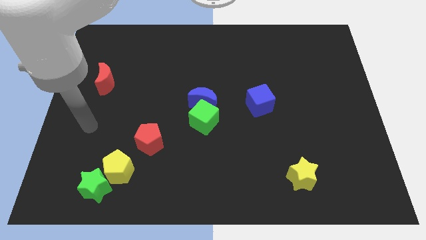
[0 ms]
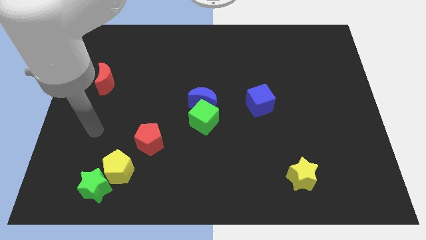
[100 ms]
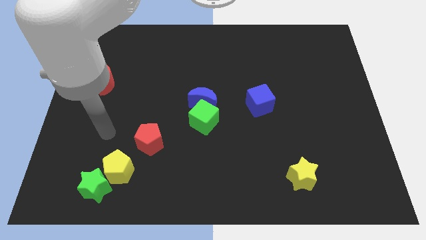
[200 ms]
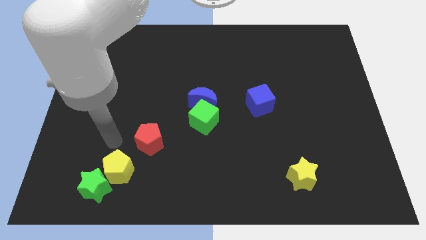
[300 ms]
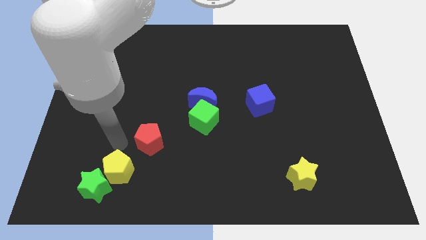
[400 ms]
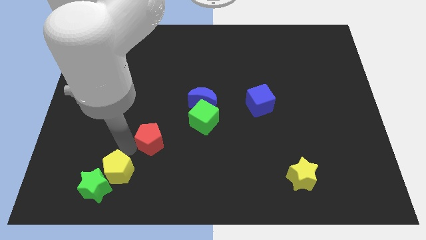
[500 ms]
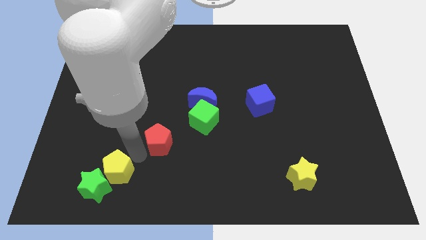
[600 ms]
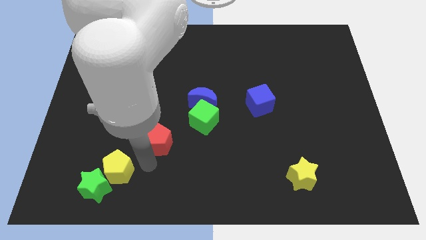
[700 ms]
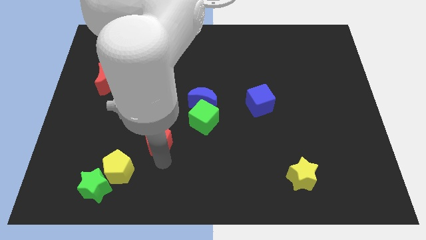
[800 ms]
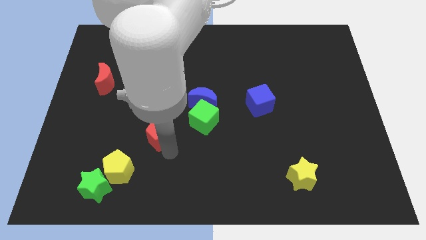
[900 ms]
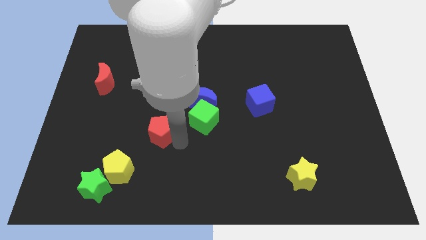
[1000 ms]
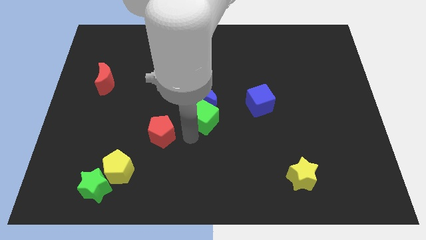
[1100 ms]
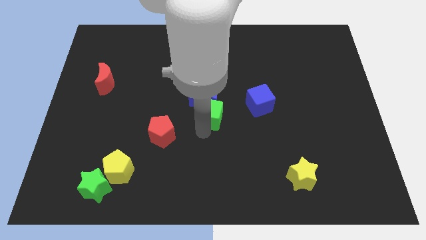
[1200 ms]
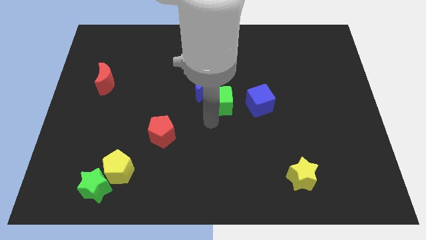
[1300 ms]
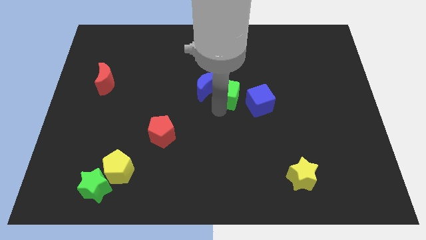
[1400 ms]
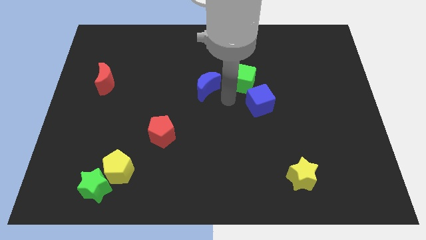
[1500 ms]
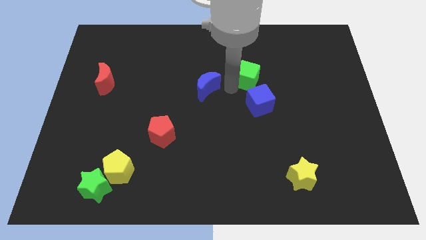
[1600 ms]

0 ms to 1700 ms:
move the blue moon away from the green cube

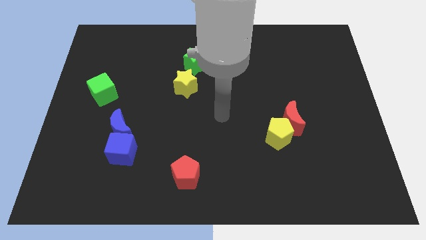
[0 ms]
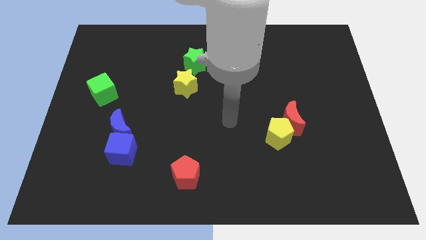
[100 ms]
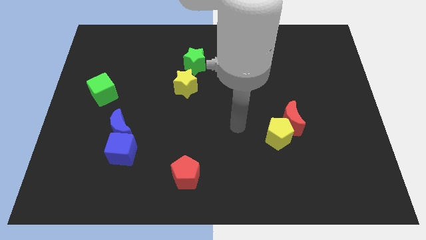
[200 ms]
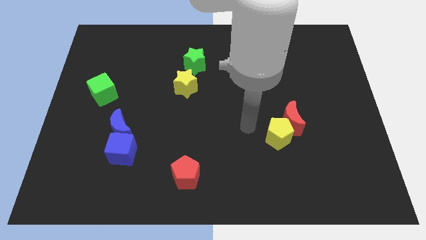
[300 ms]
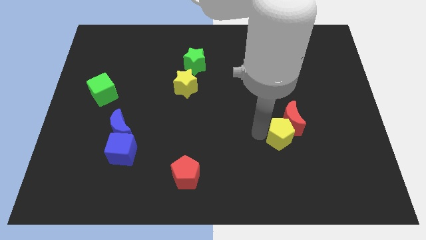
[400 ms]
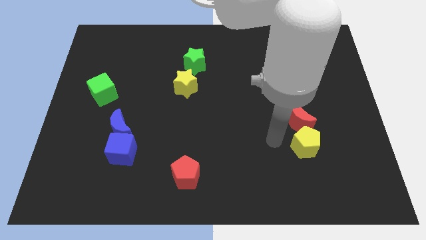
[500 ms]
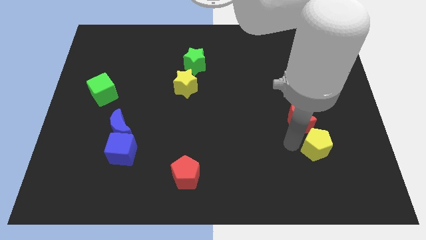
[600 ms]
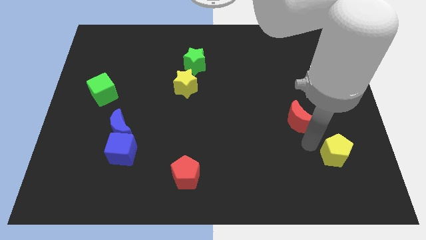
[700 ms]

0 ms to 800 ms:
separate the red moon from the yellow pentagon

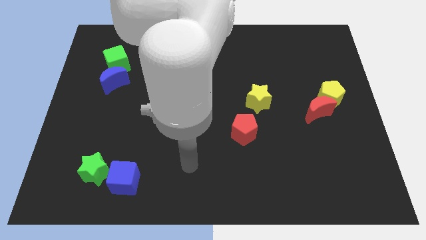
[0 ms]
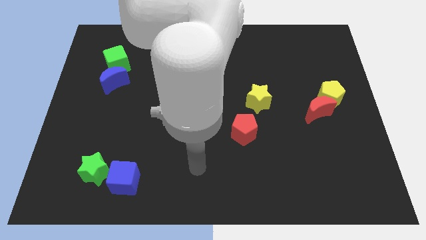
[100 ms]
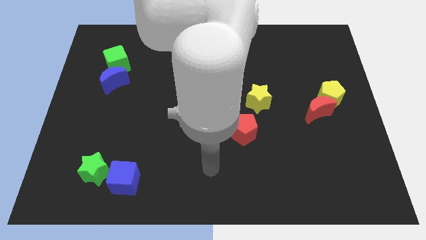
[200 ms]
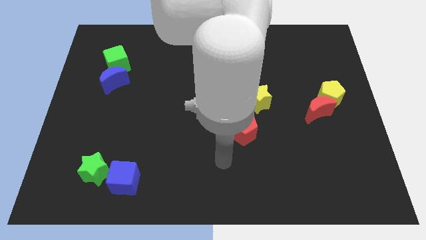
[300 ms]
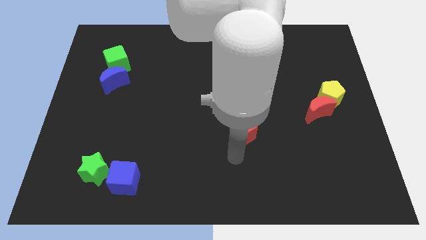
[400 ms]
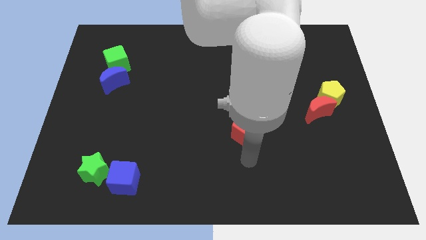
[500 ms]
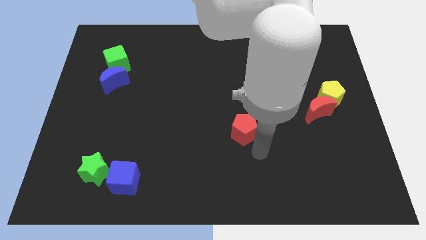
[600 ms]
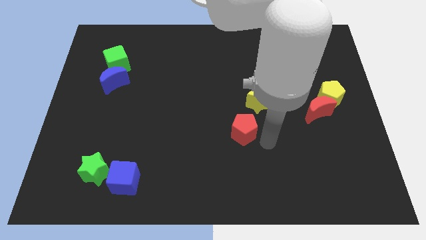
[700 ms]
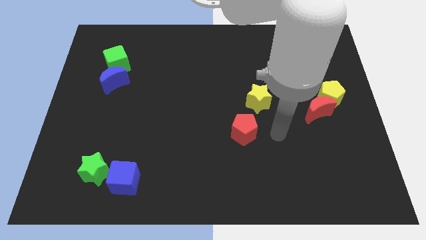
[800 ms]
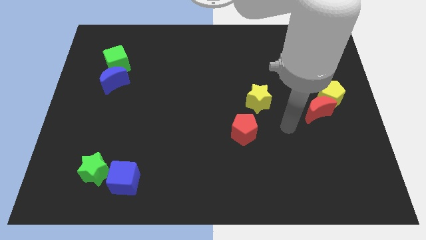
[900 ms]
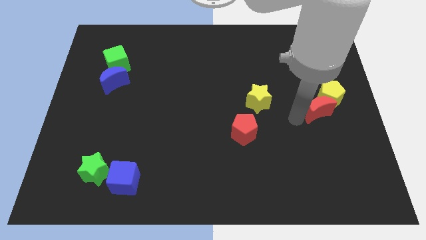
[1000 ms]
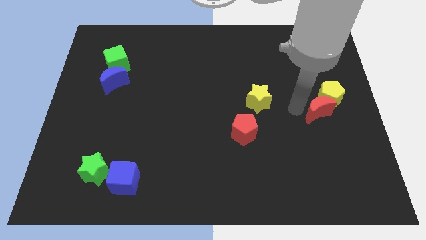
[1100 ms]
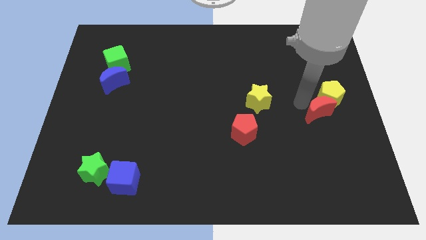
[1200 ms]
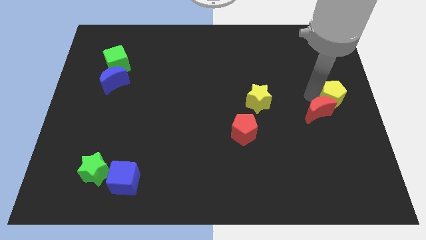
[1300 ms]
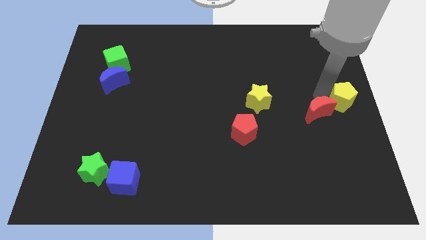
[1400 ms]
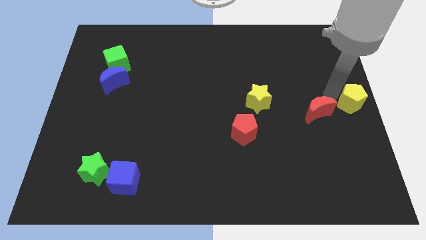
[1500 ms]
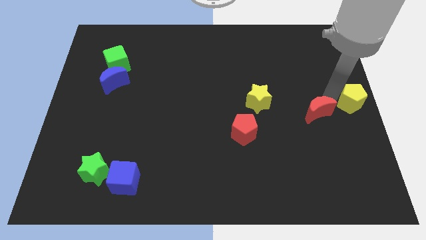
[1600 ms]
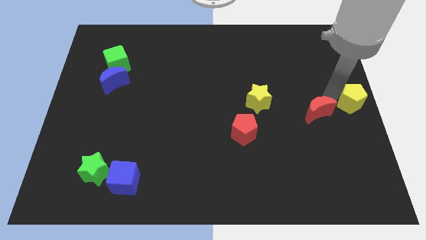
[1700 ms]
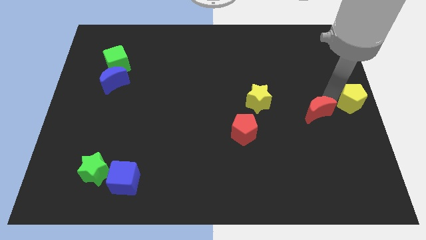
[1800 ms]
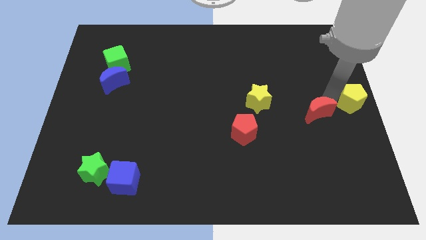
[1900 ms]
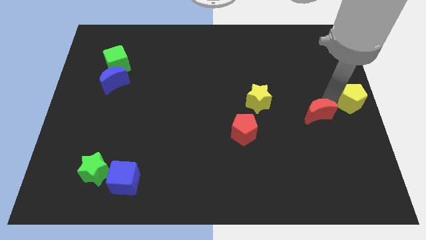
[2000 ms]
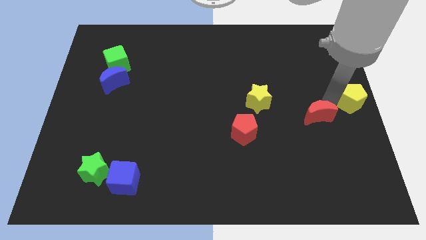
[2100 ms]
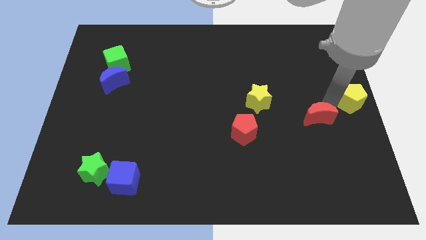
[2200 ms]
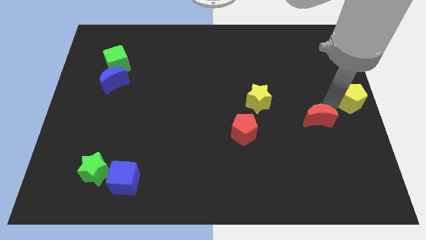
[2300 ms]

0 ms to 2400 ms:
move the red moon away from the yellow pentagon

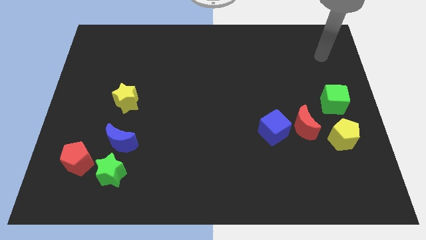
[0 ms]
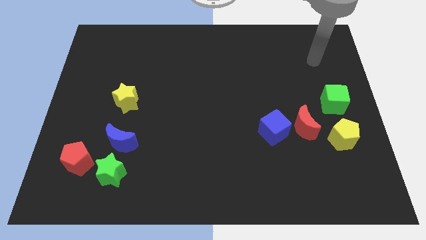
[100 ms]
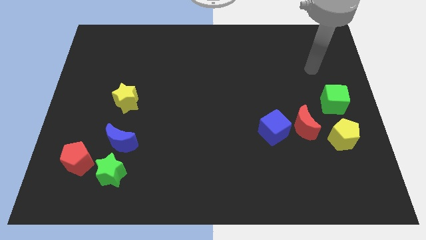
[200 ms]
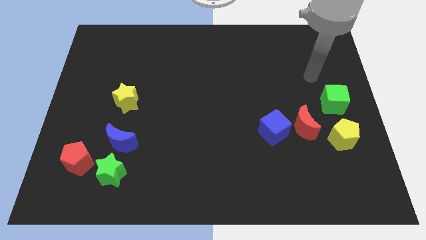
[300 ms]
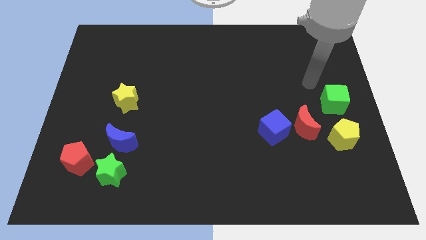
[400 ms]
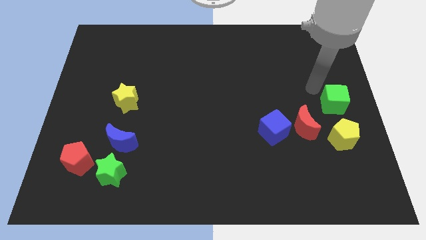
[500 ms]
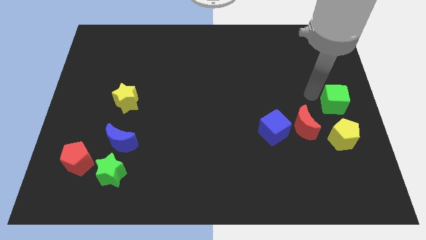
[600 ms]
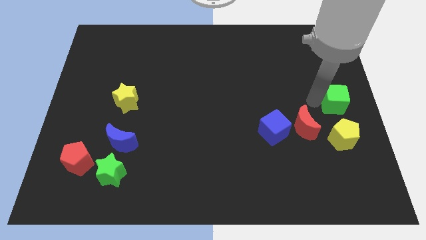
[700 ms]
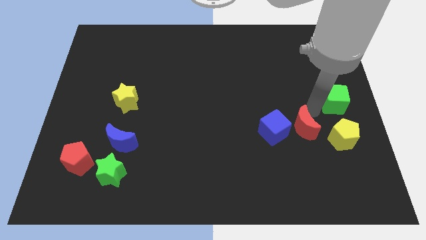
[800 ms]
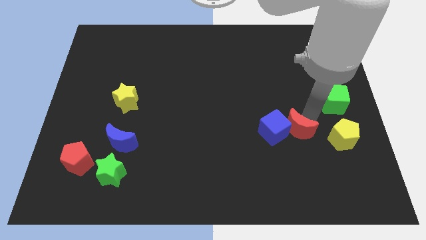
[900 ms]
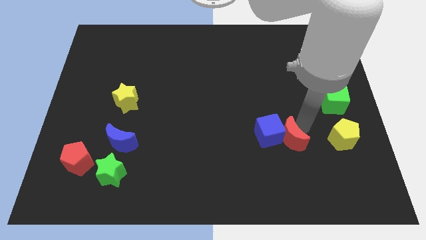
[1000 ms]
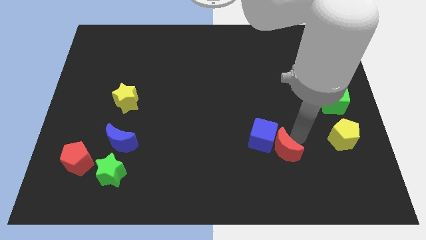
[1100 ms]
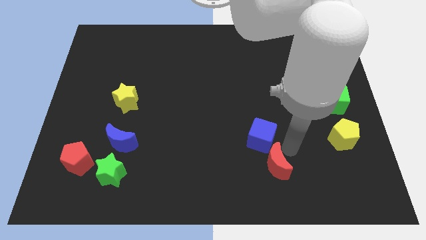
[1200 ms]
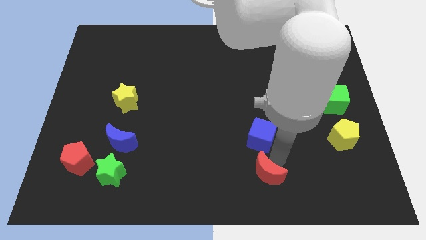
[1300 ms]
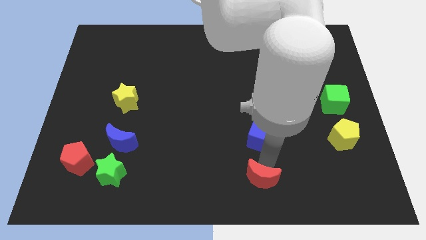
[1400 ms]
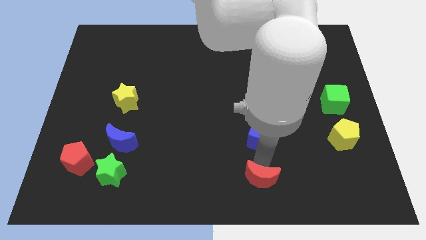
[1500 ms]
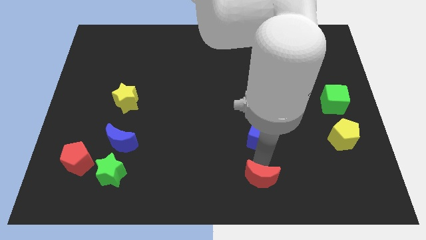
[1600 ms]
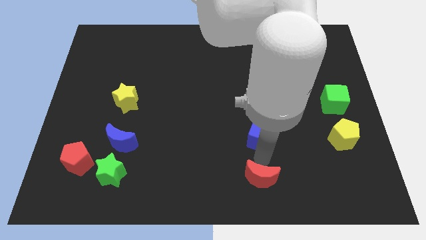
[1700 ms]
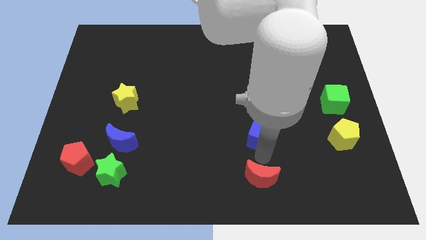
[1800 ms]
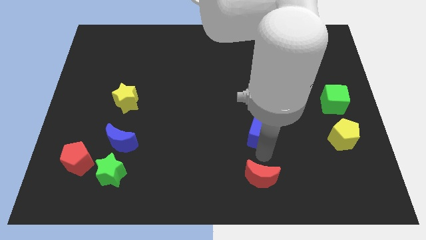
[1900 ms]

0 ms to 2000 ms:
move the blue cube away from the red moon

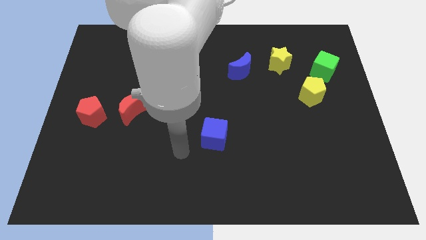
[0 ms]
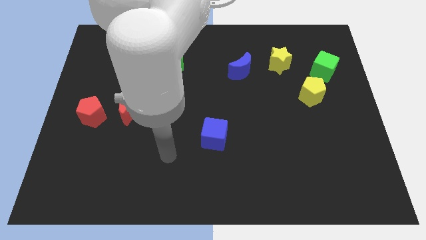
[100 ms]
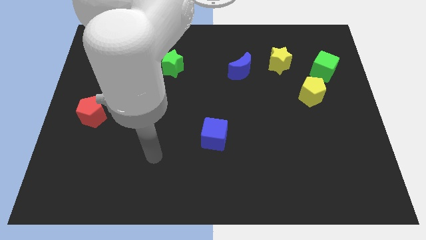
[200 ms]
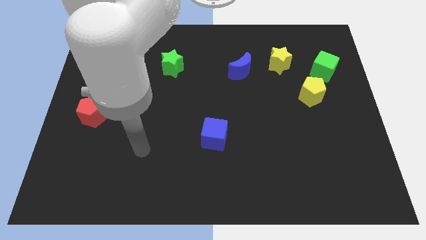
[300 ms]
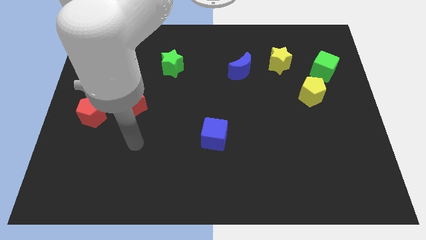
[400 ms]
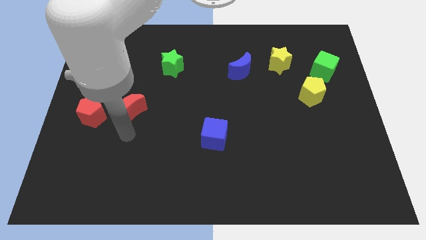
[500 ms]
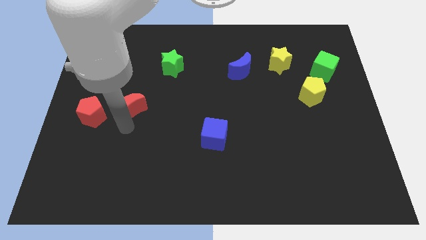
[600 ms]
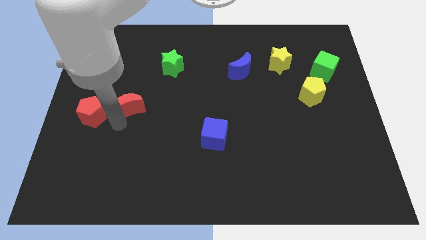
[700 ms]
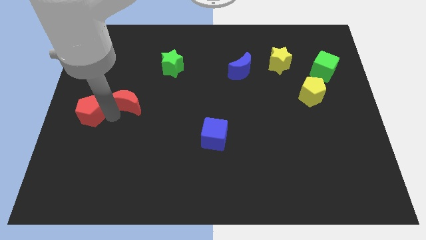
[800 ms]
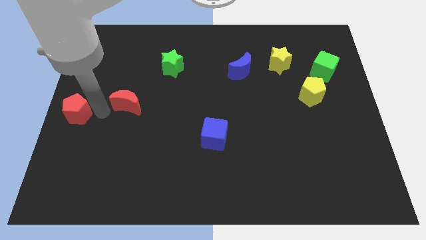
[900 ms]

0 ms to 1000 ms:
pull the red moon apart from the red pentagon

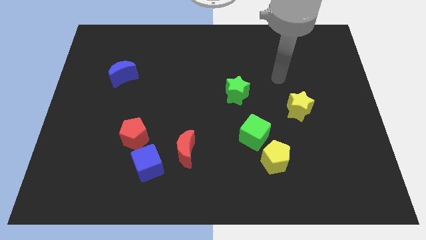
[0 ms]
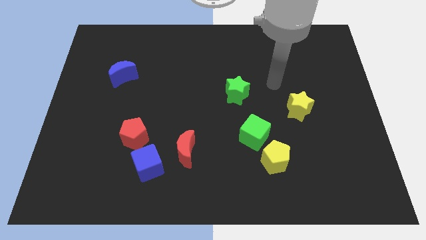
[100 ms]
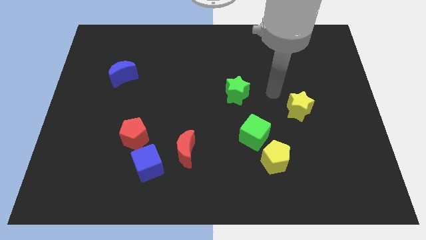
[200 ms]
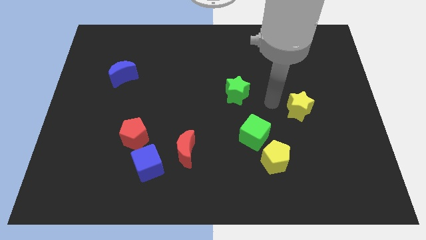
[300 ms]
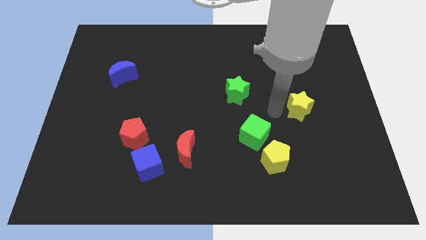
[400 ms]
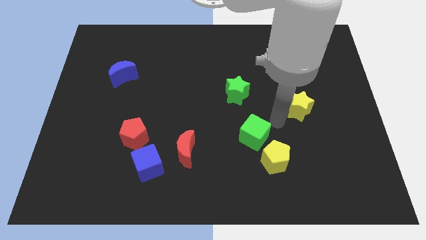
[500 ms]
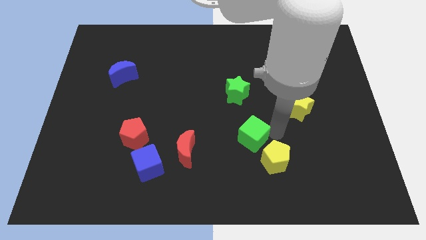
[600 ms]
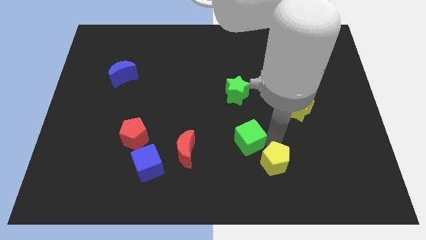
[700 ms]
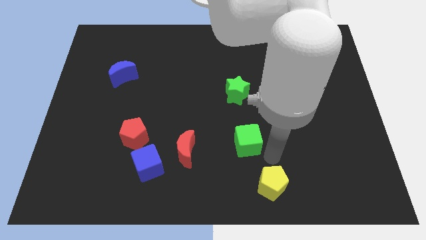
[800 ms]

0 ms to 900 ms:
move the green cube away from the yellow pentagon

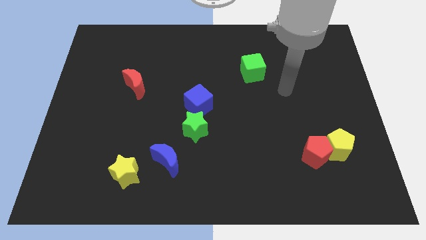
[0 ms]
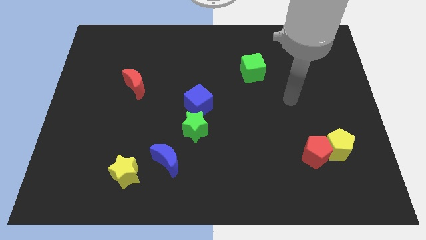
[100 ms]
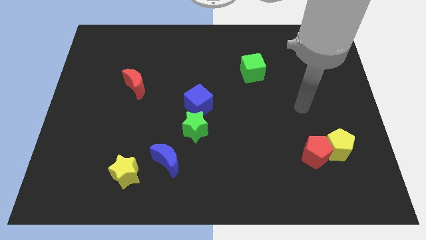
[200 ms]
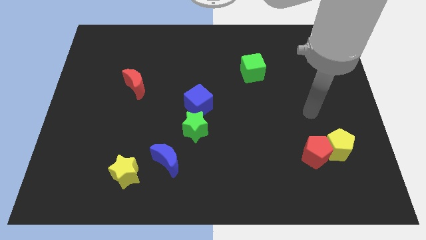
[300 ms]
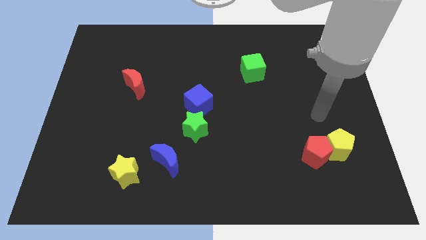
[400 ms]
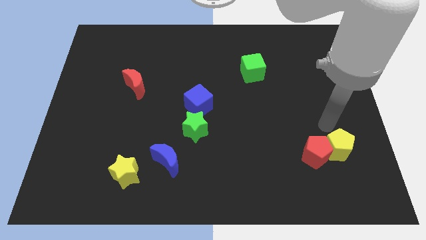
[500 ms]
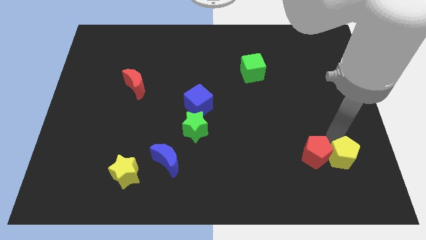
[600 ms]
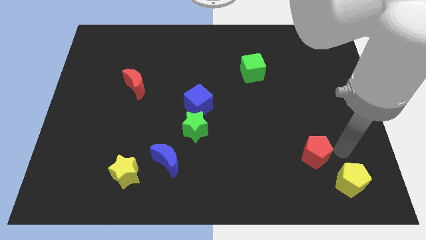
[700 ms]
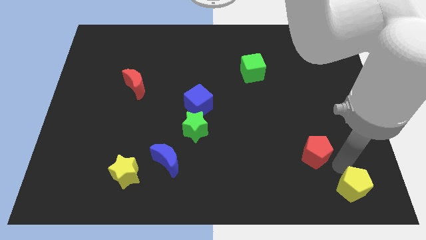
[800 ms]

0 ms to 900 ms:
separate the red pentagon from the yellow pentagon
